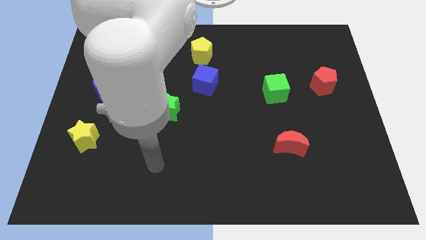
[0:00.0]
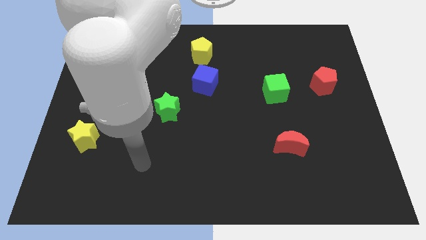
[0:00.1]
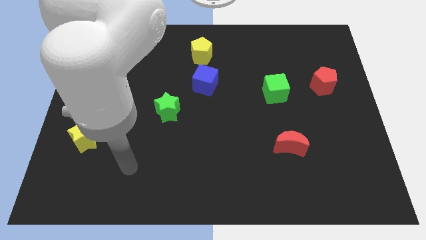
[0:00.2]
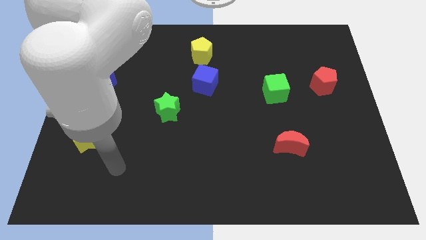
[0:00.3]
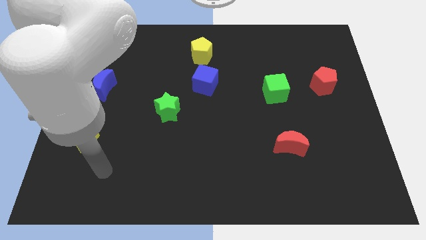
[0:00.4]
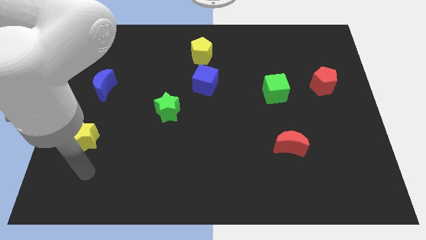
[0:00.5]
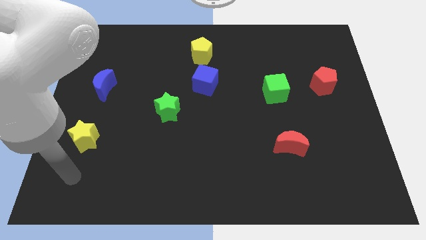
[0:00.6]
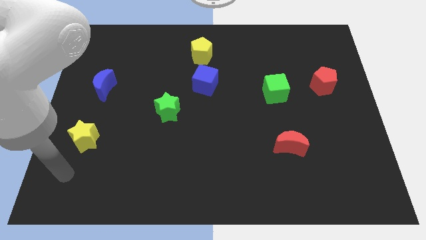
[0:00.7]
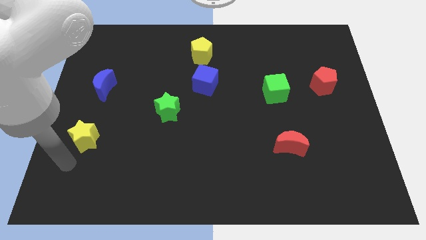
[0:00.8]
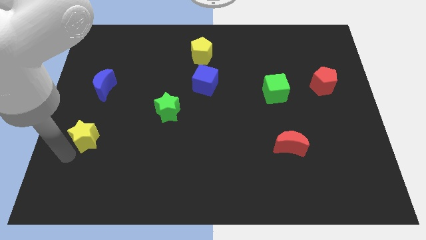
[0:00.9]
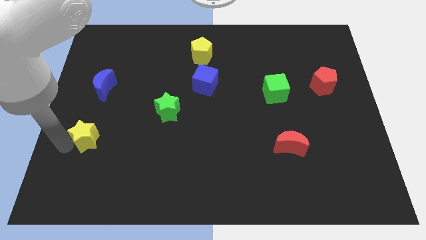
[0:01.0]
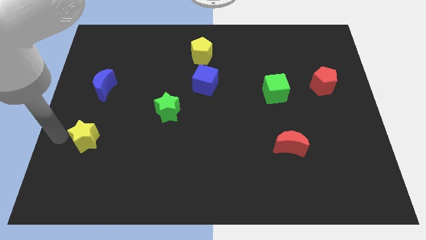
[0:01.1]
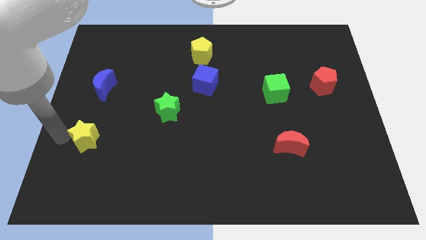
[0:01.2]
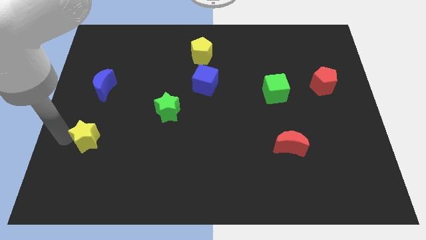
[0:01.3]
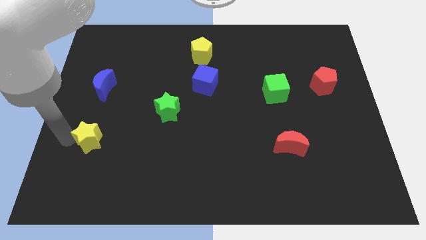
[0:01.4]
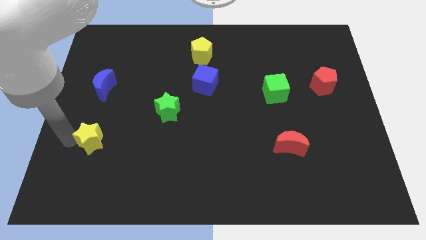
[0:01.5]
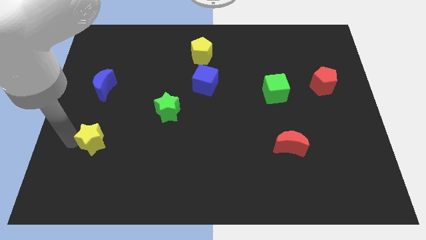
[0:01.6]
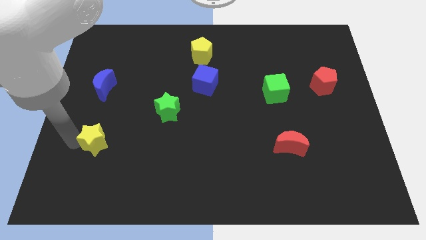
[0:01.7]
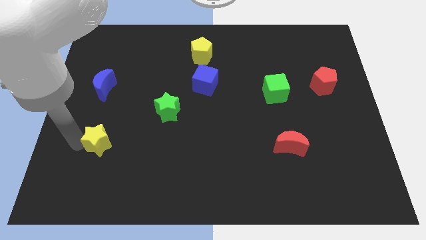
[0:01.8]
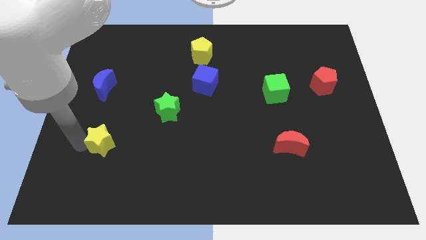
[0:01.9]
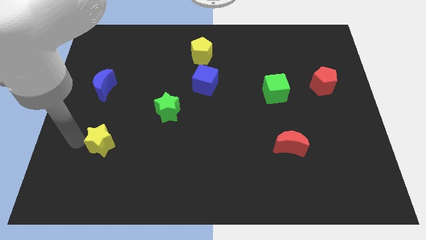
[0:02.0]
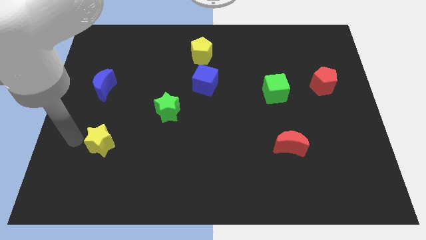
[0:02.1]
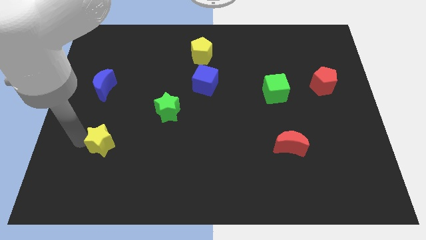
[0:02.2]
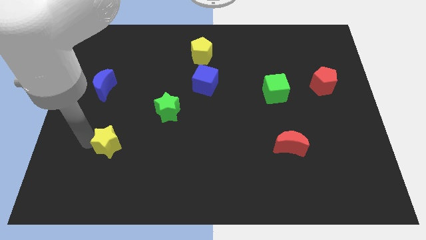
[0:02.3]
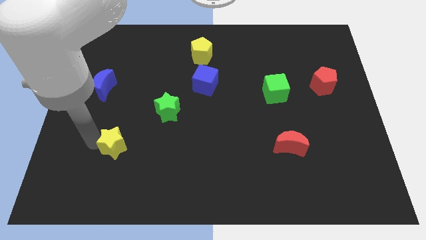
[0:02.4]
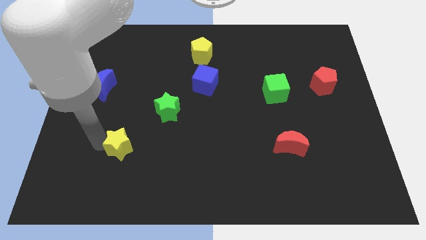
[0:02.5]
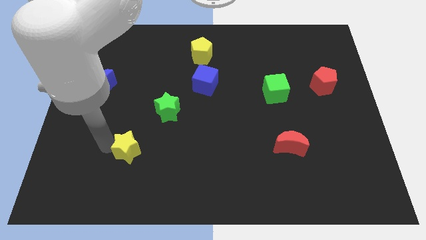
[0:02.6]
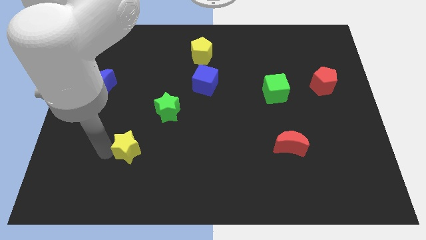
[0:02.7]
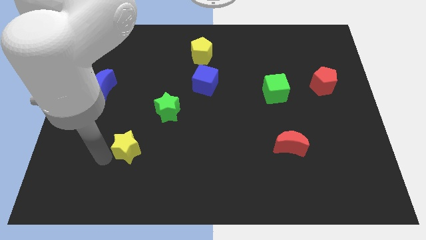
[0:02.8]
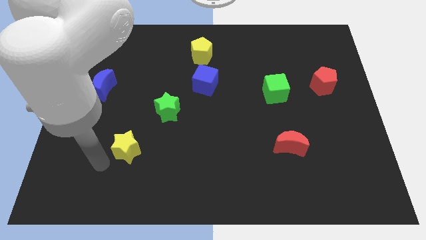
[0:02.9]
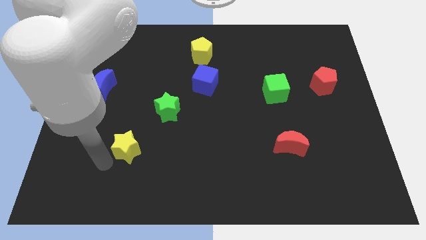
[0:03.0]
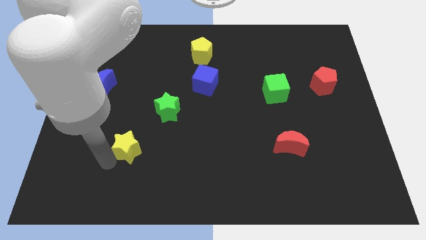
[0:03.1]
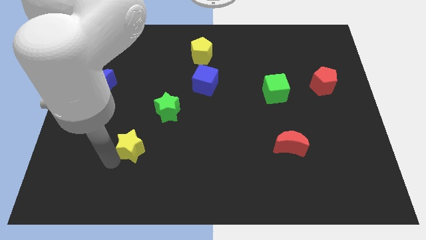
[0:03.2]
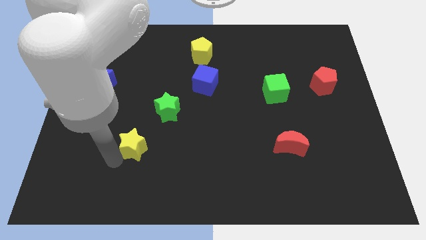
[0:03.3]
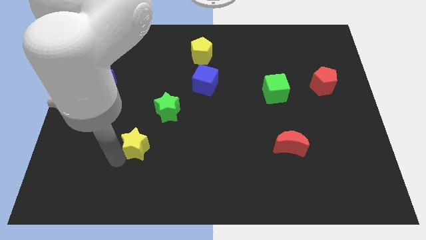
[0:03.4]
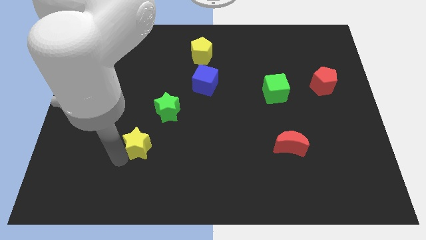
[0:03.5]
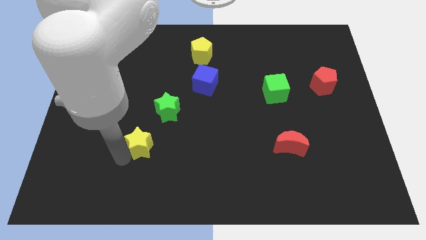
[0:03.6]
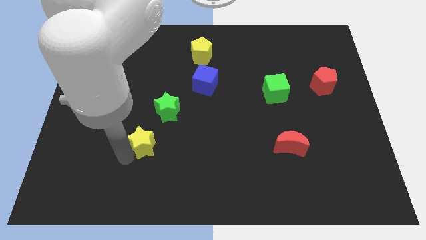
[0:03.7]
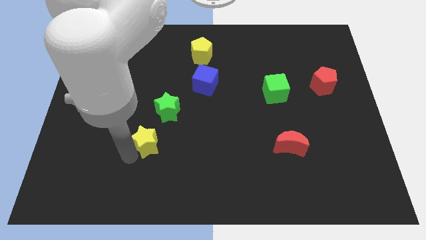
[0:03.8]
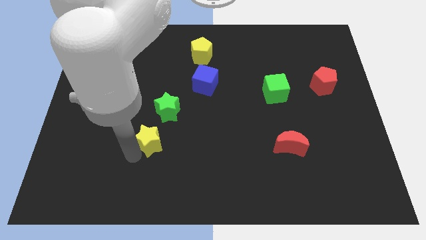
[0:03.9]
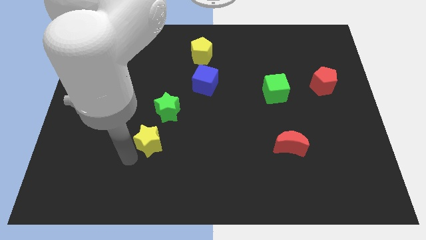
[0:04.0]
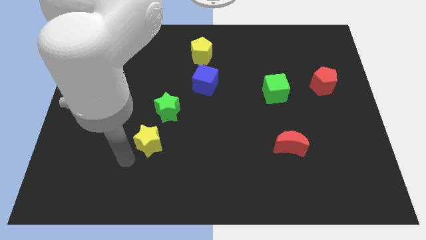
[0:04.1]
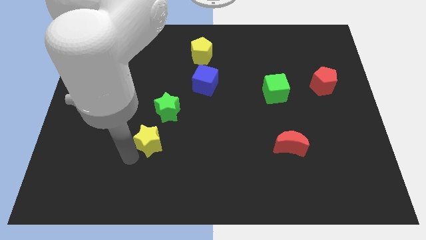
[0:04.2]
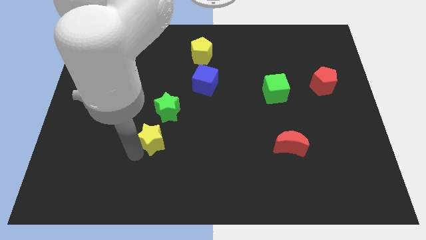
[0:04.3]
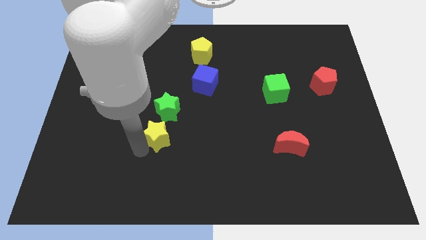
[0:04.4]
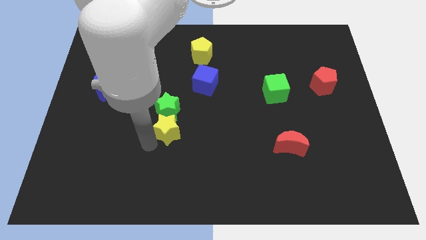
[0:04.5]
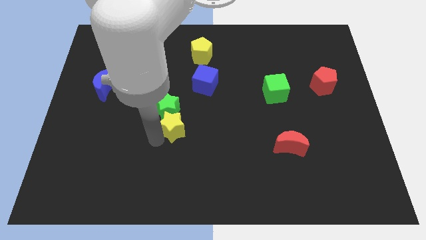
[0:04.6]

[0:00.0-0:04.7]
move the yellow star to the middle of the board

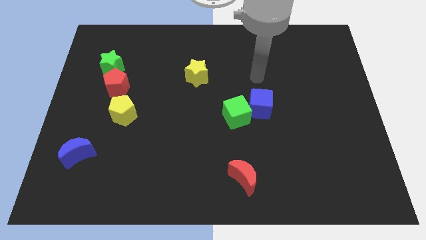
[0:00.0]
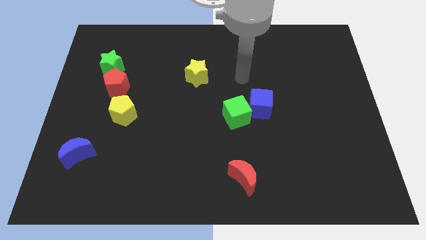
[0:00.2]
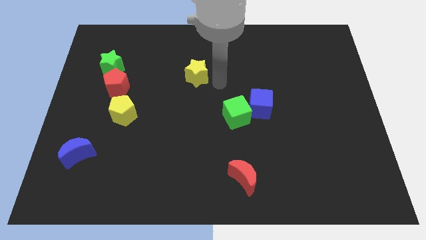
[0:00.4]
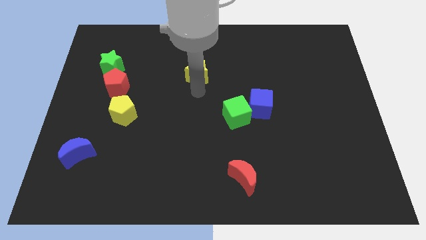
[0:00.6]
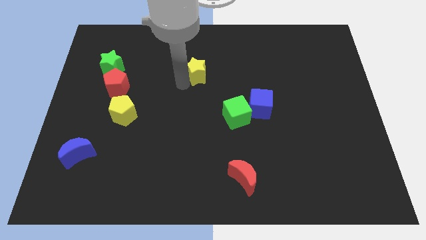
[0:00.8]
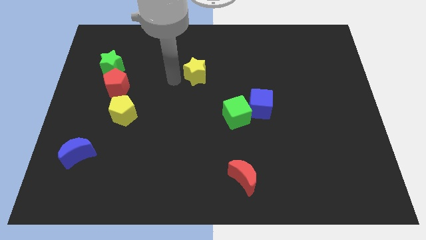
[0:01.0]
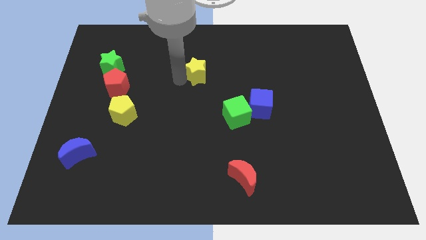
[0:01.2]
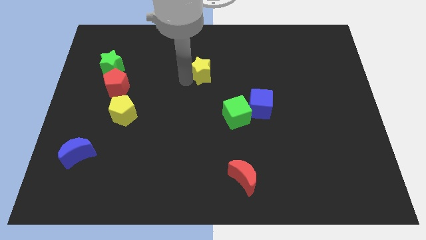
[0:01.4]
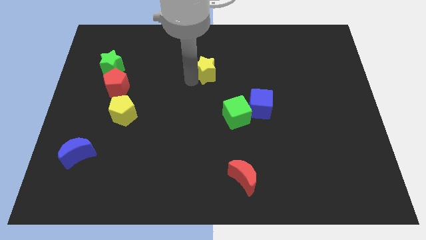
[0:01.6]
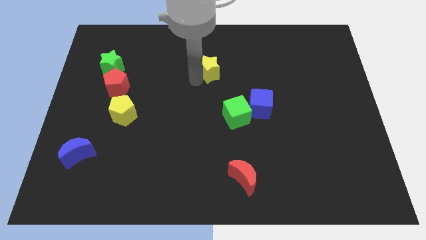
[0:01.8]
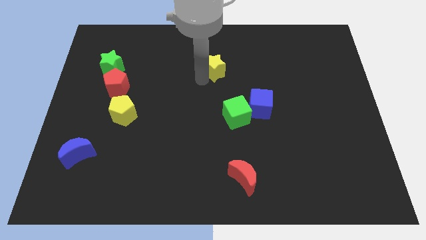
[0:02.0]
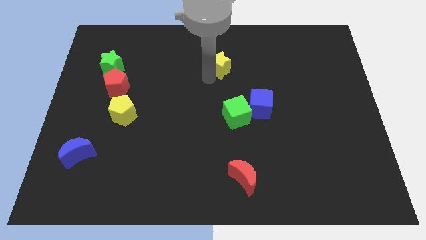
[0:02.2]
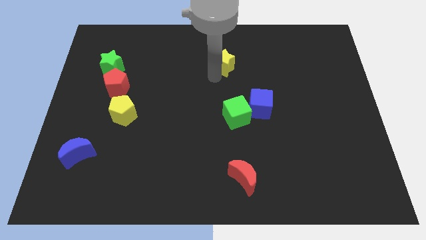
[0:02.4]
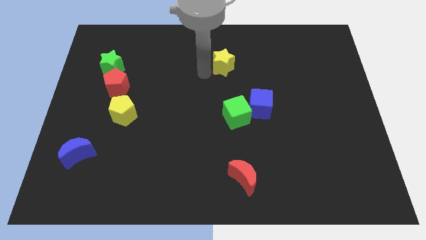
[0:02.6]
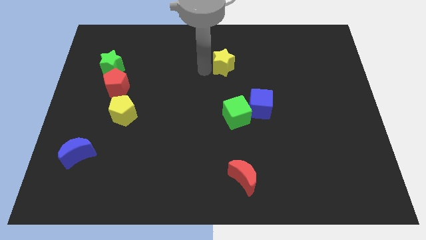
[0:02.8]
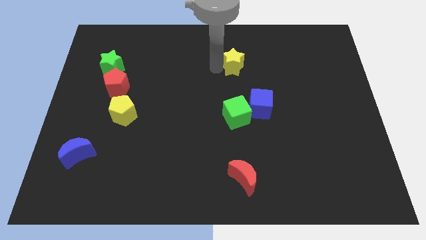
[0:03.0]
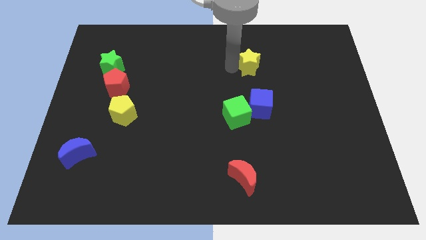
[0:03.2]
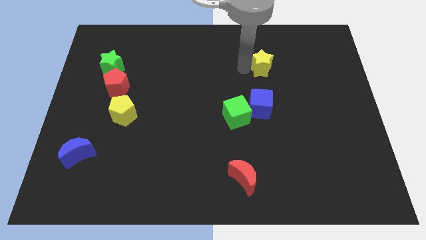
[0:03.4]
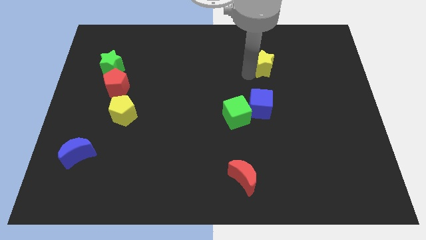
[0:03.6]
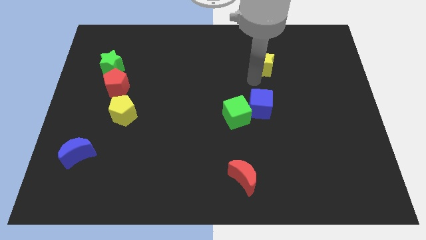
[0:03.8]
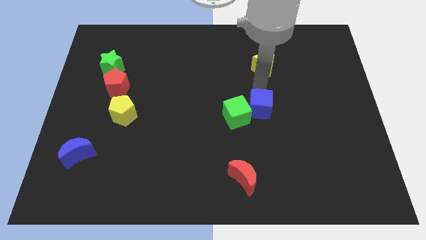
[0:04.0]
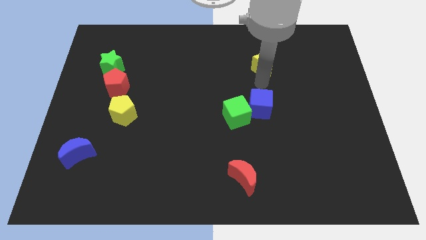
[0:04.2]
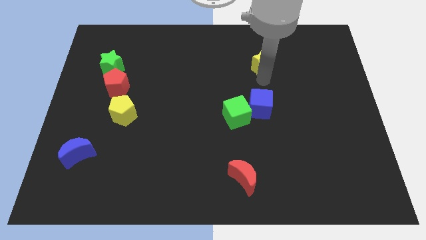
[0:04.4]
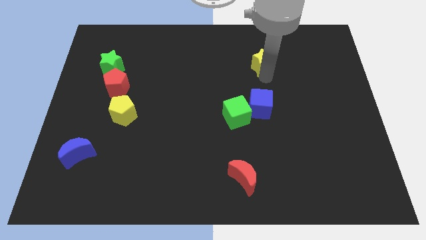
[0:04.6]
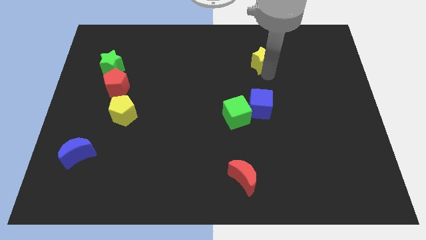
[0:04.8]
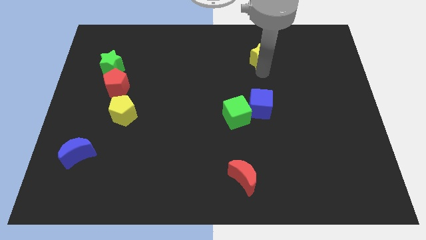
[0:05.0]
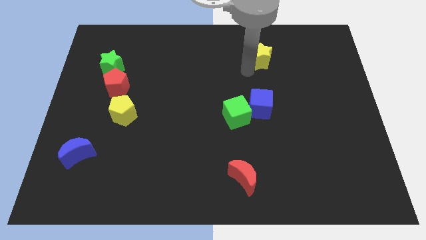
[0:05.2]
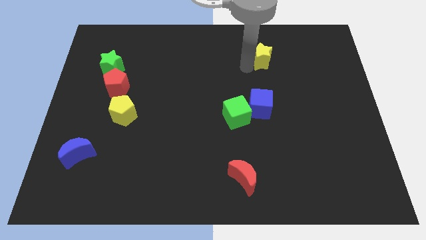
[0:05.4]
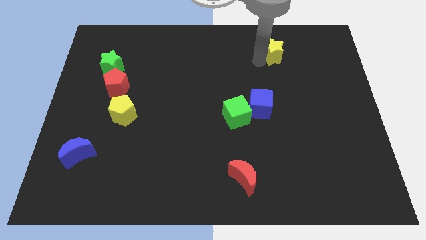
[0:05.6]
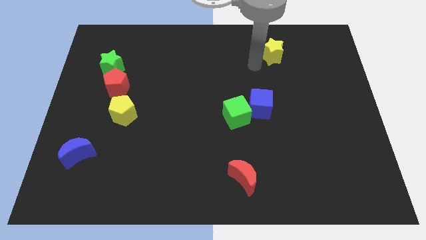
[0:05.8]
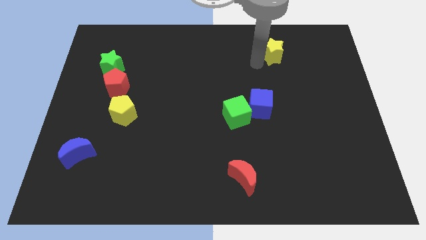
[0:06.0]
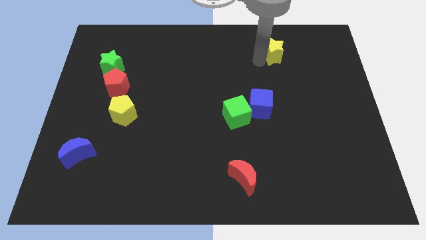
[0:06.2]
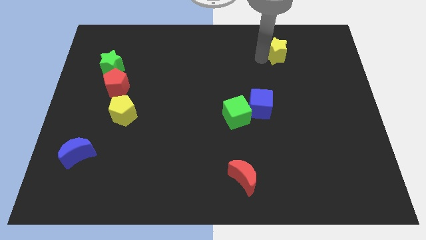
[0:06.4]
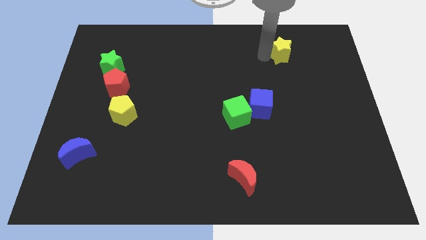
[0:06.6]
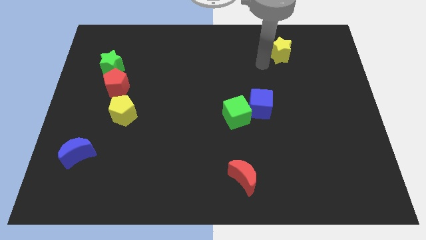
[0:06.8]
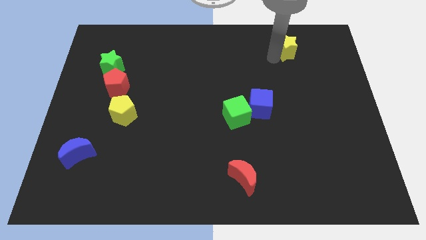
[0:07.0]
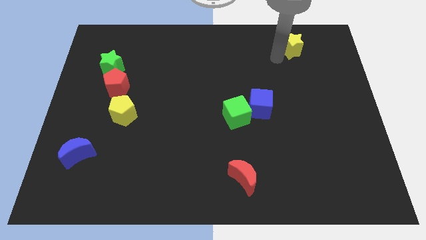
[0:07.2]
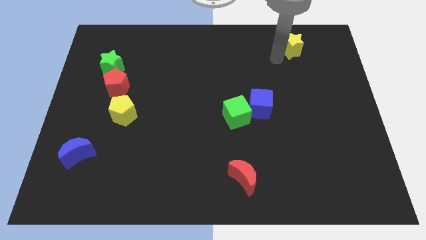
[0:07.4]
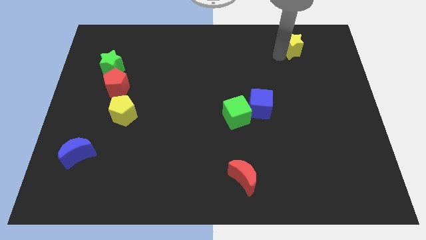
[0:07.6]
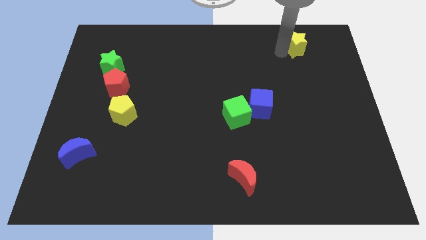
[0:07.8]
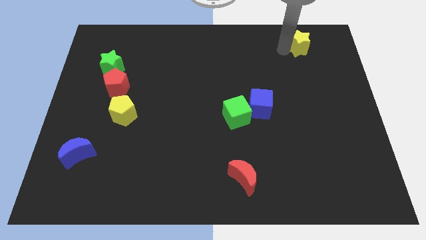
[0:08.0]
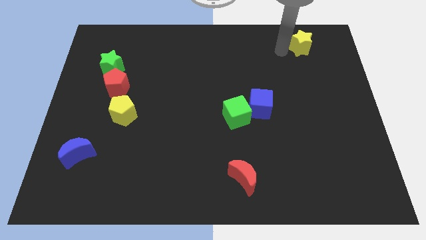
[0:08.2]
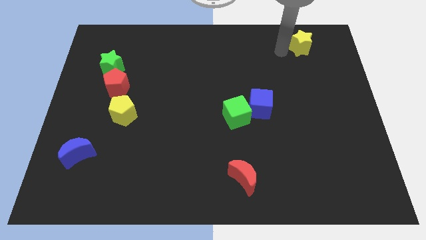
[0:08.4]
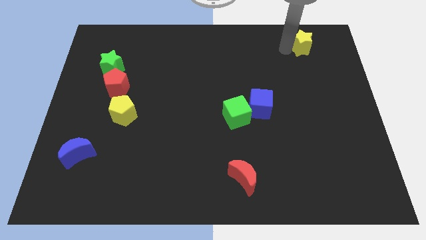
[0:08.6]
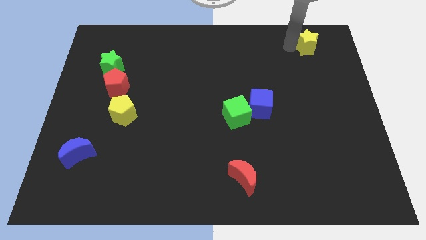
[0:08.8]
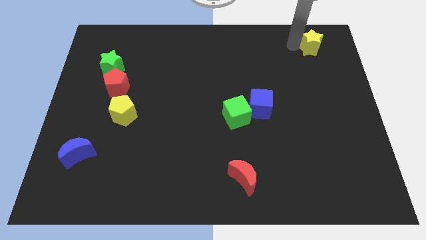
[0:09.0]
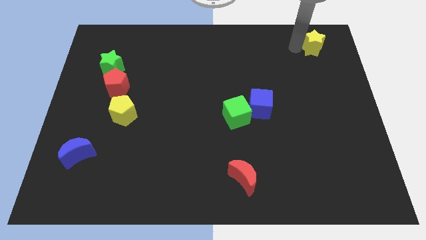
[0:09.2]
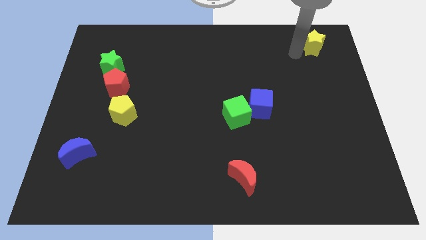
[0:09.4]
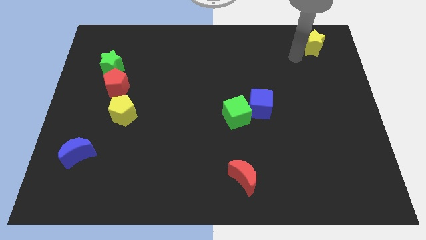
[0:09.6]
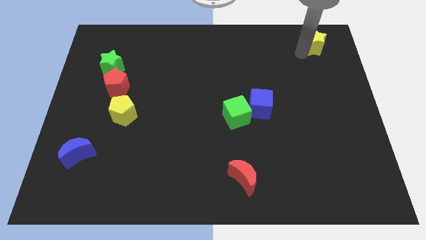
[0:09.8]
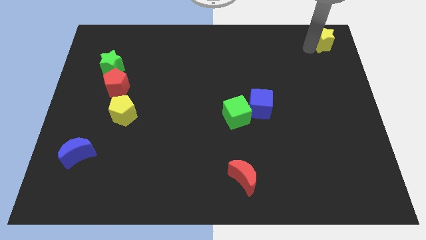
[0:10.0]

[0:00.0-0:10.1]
put the yellow star to the top right of the board
